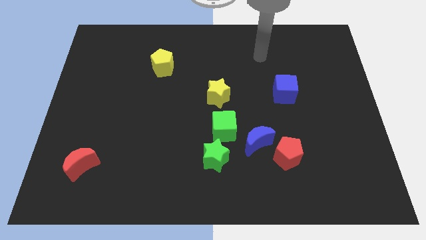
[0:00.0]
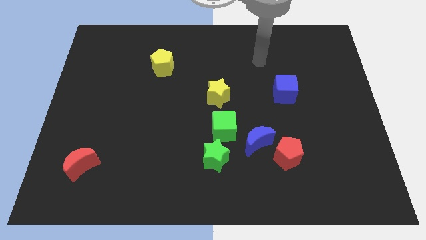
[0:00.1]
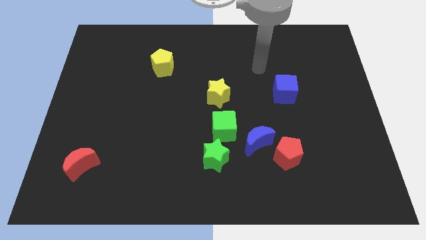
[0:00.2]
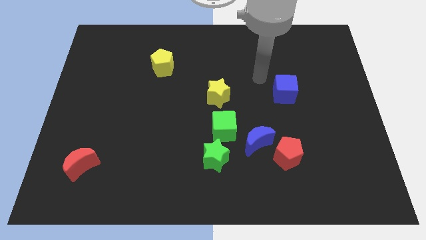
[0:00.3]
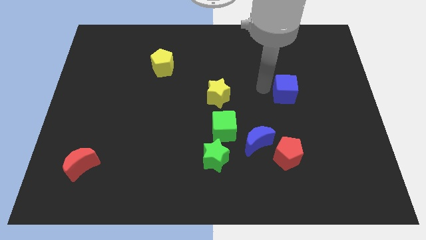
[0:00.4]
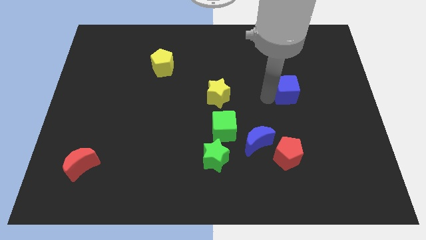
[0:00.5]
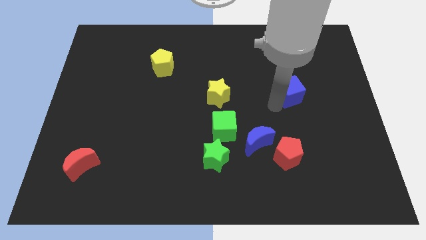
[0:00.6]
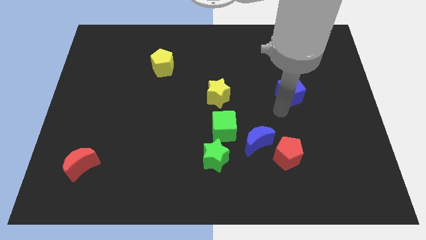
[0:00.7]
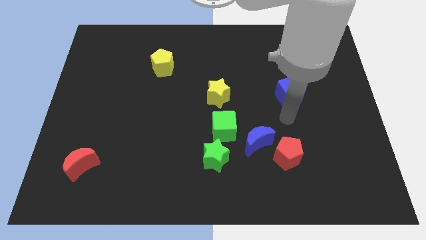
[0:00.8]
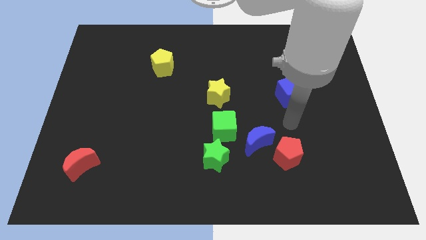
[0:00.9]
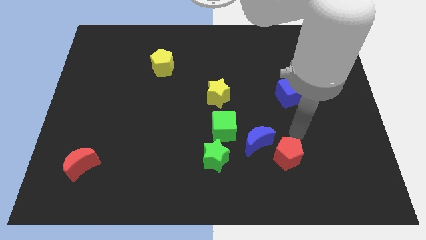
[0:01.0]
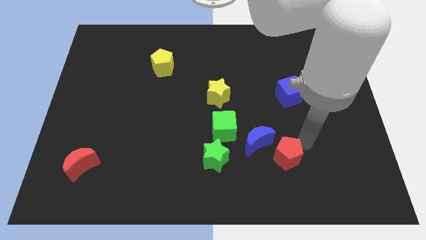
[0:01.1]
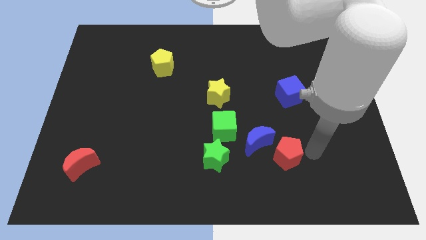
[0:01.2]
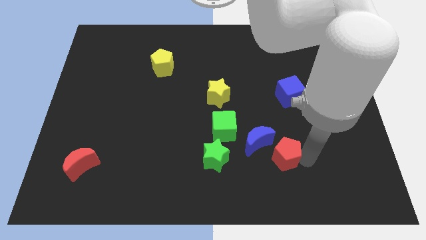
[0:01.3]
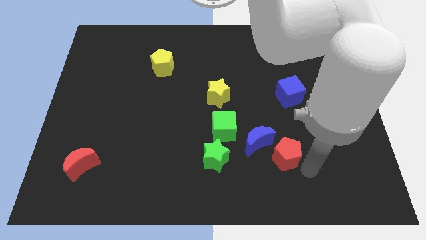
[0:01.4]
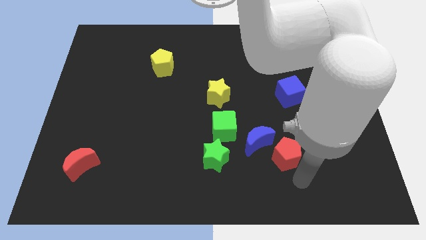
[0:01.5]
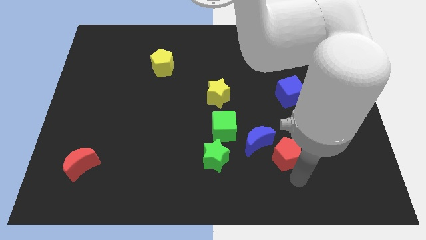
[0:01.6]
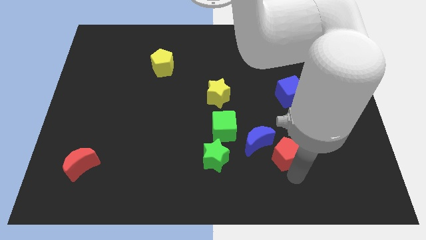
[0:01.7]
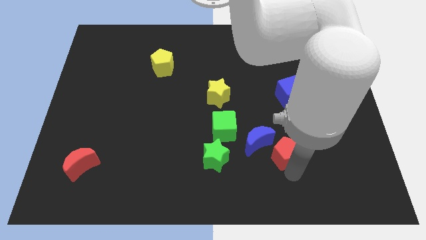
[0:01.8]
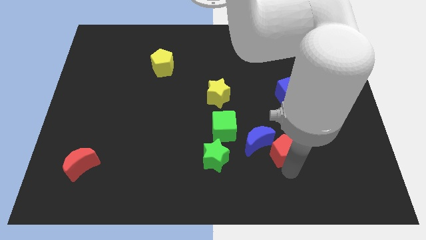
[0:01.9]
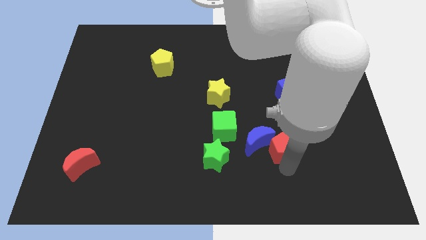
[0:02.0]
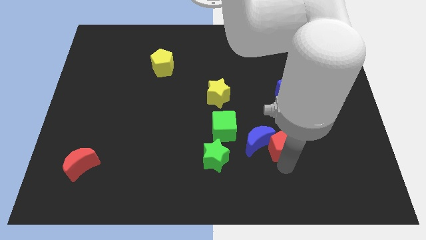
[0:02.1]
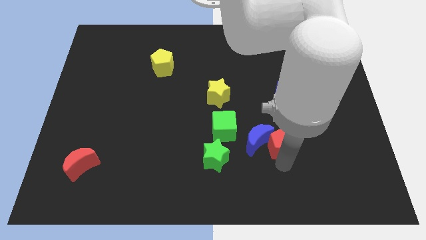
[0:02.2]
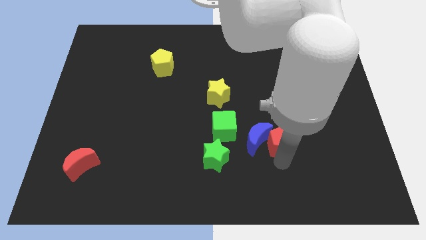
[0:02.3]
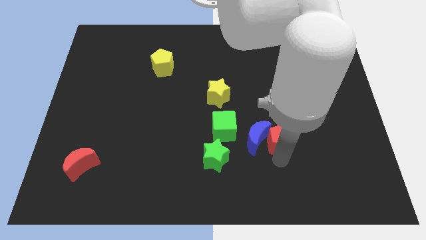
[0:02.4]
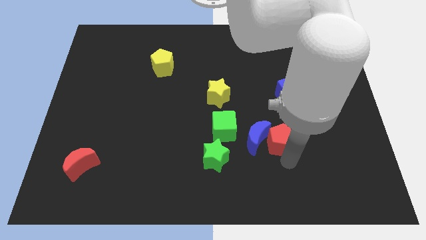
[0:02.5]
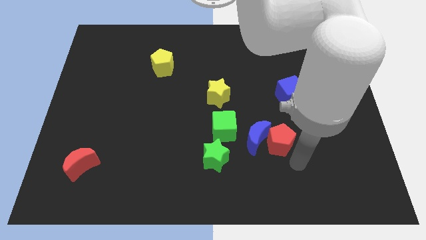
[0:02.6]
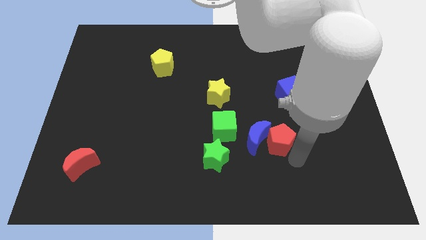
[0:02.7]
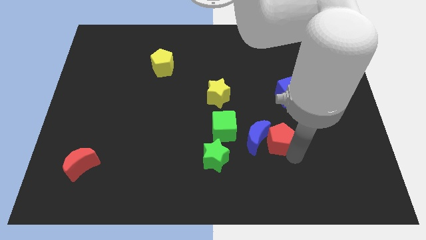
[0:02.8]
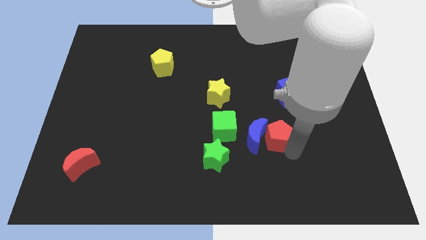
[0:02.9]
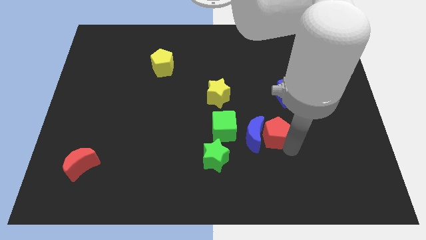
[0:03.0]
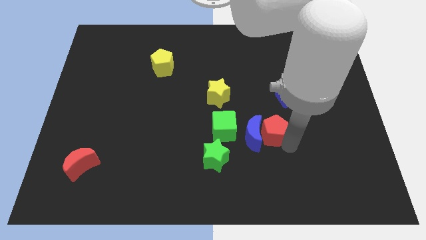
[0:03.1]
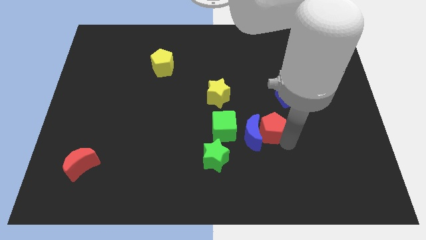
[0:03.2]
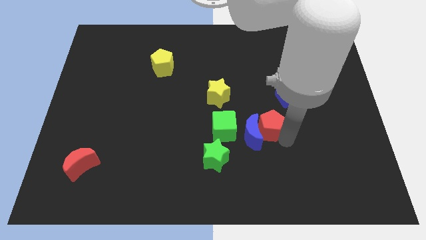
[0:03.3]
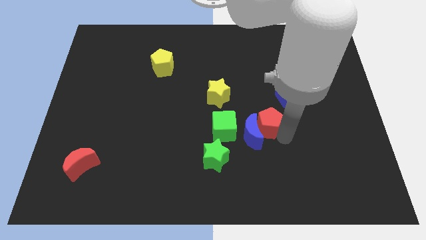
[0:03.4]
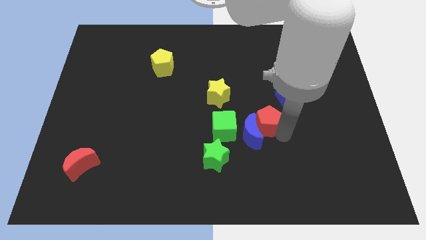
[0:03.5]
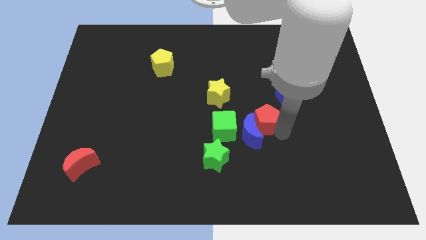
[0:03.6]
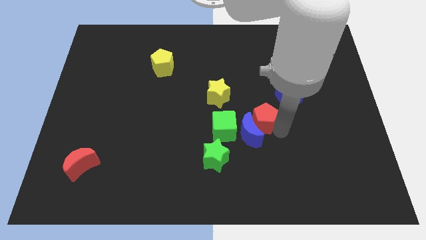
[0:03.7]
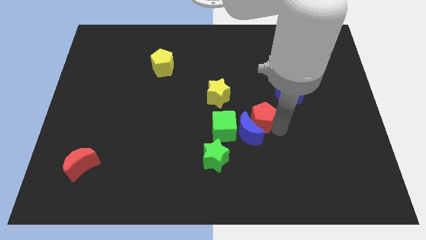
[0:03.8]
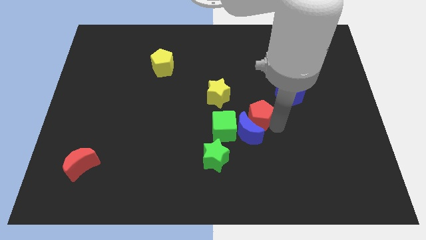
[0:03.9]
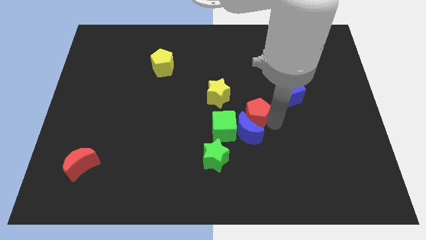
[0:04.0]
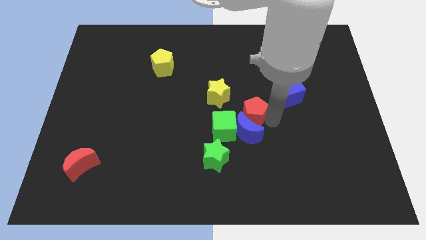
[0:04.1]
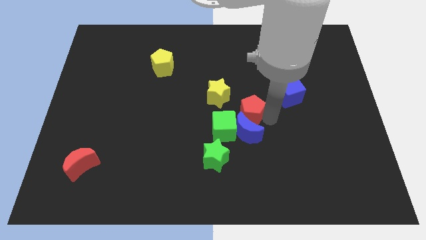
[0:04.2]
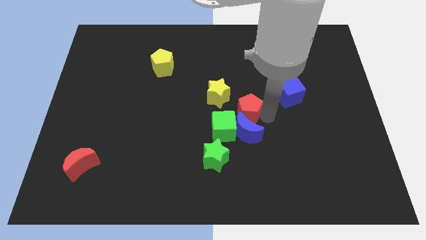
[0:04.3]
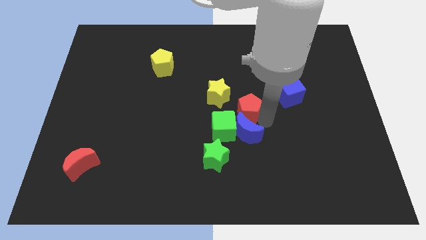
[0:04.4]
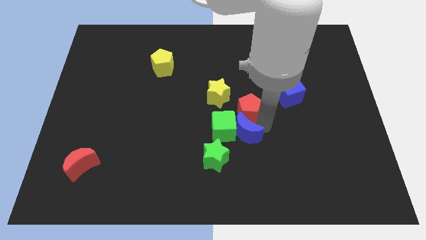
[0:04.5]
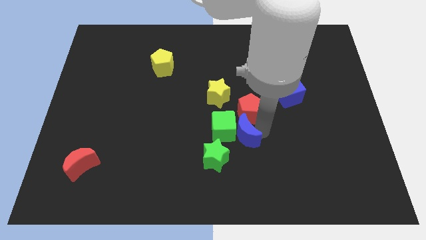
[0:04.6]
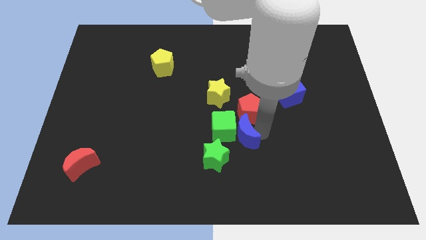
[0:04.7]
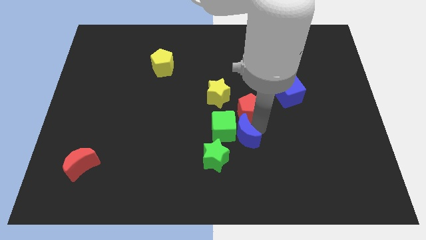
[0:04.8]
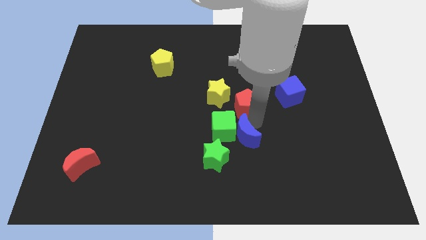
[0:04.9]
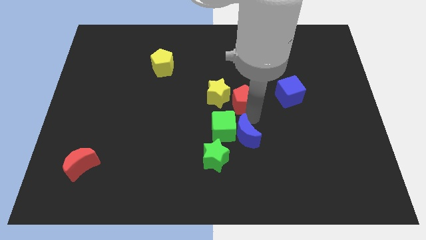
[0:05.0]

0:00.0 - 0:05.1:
put the red pentagon to the top side of the green cube

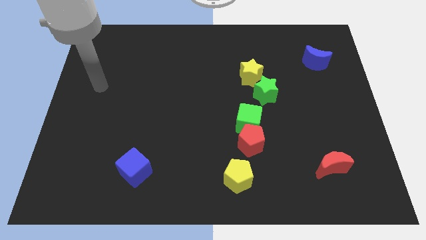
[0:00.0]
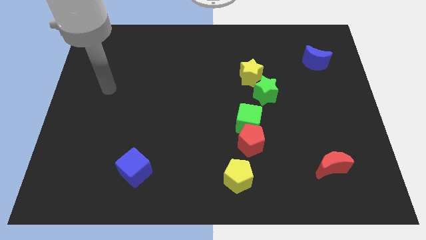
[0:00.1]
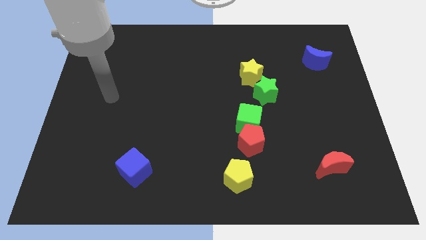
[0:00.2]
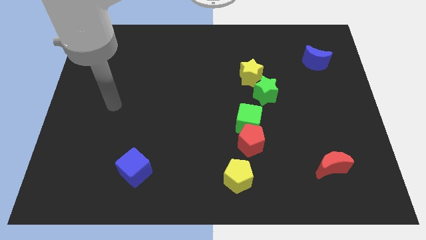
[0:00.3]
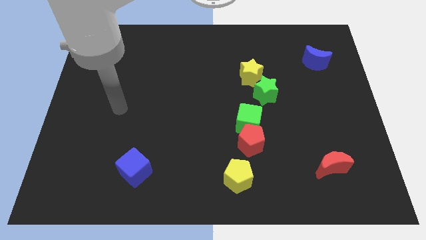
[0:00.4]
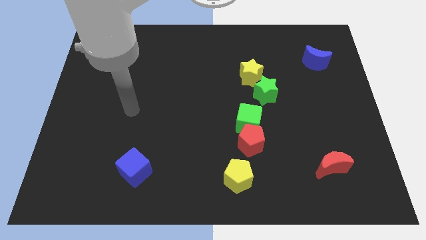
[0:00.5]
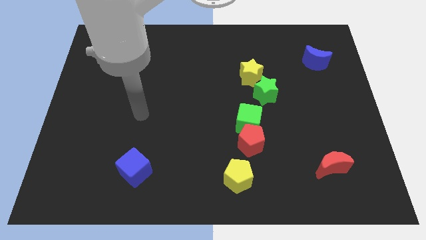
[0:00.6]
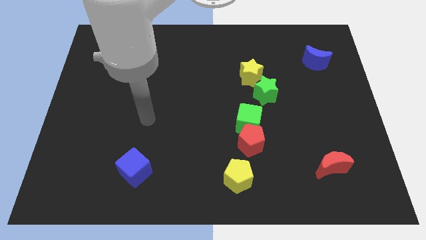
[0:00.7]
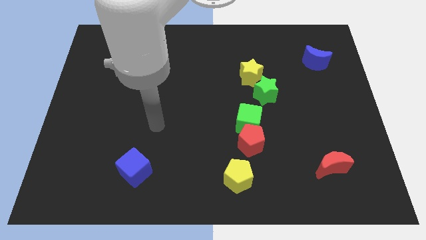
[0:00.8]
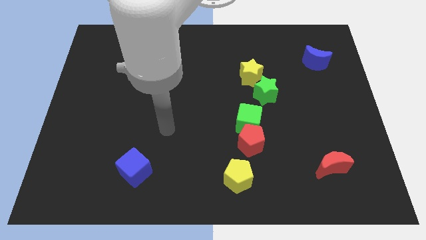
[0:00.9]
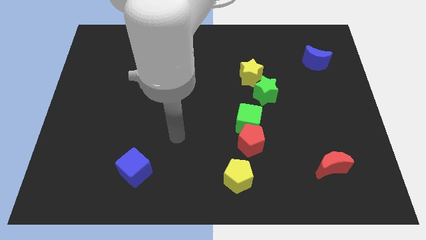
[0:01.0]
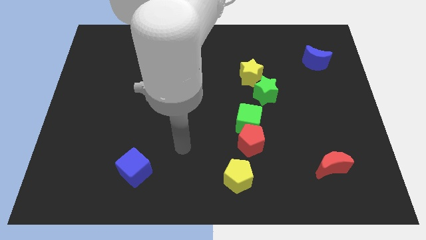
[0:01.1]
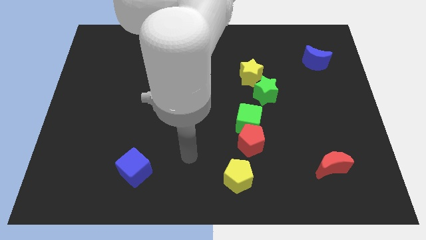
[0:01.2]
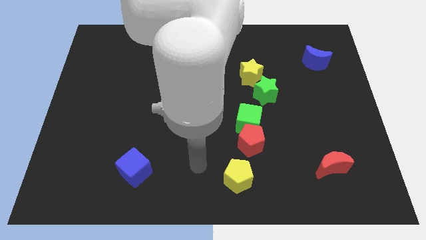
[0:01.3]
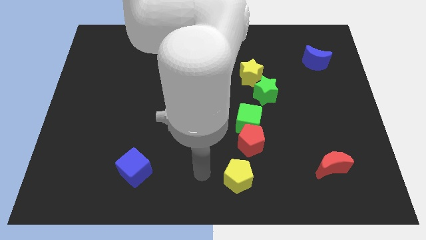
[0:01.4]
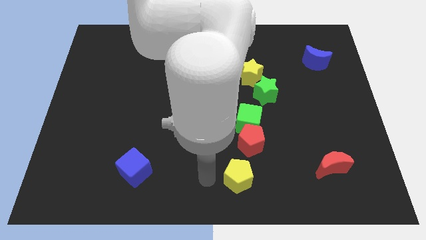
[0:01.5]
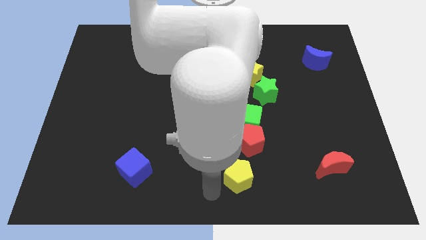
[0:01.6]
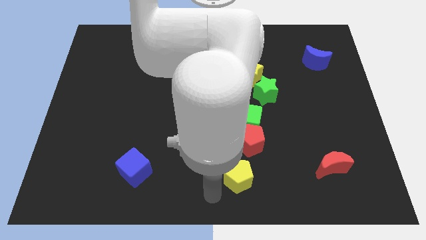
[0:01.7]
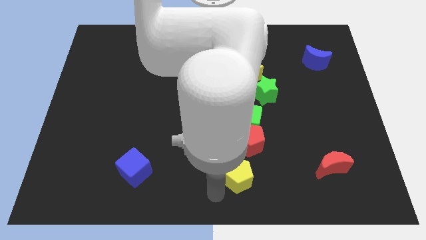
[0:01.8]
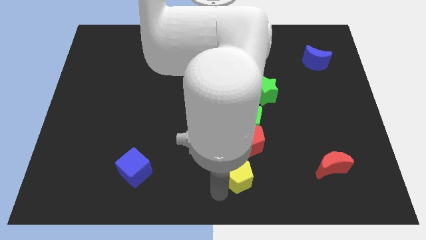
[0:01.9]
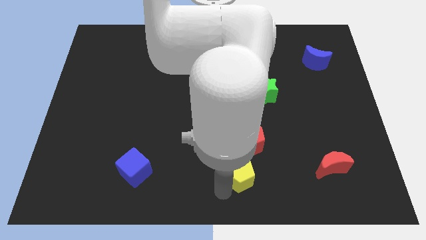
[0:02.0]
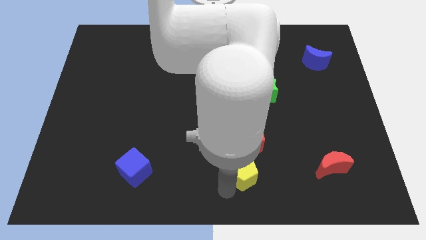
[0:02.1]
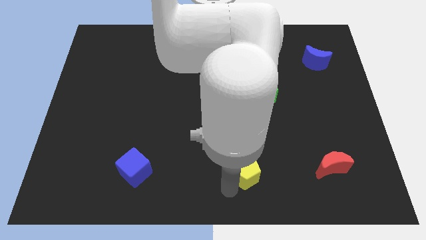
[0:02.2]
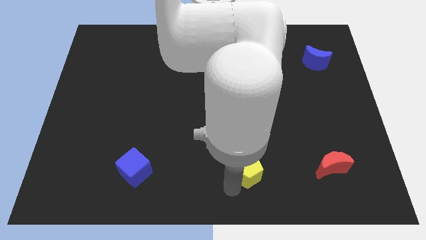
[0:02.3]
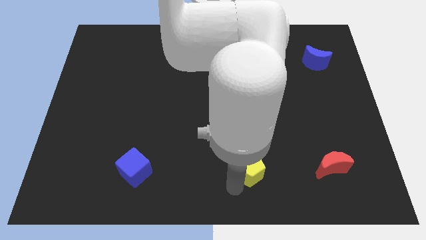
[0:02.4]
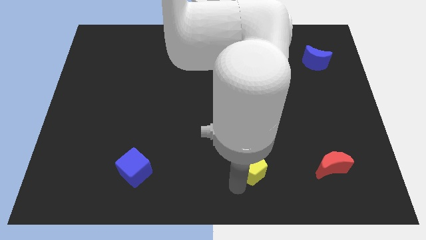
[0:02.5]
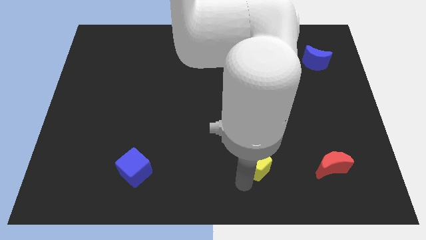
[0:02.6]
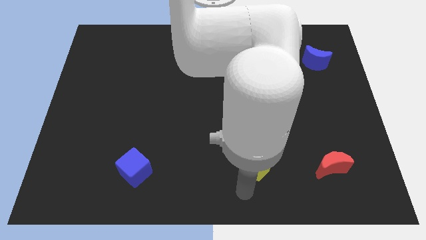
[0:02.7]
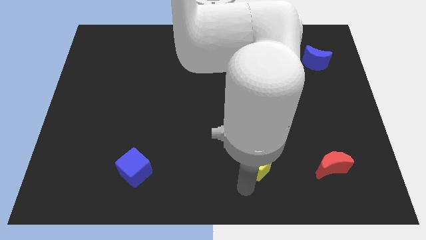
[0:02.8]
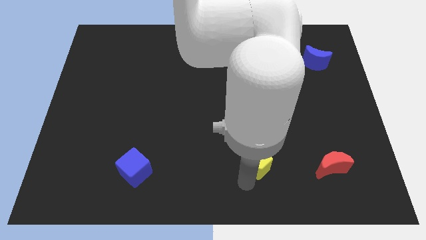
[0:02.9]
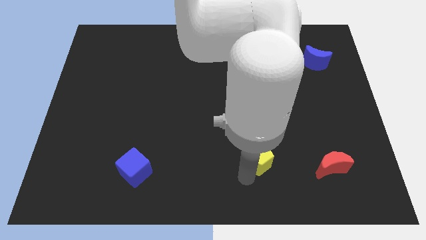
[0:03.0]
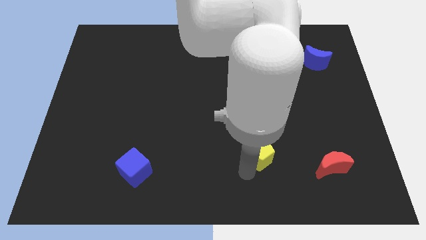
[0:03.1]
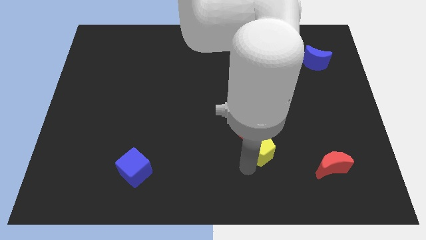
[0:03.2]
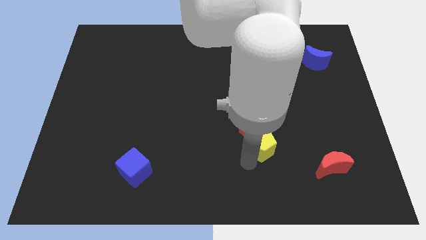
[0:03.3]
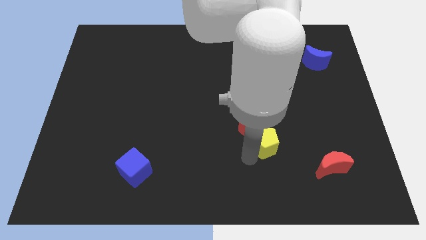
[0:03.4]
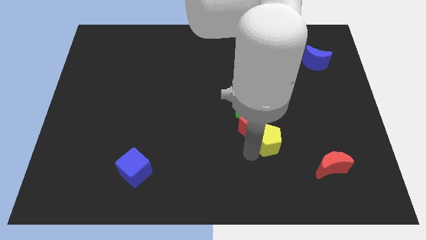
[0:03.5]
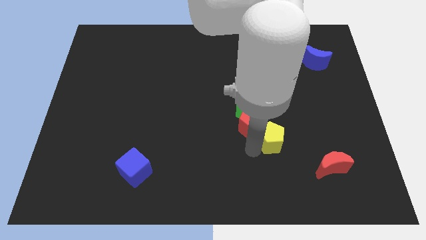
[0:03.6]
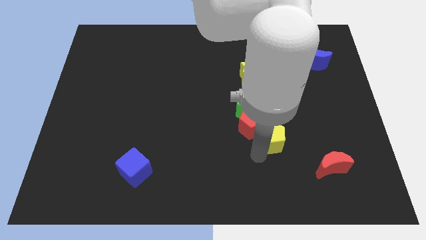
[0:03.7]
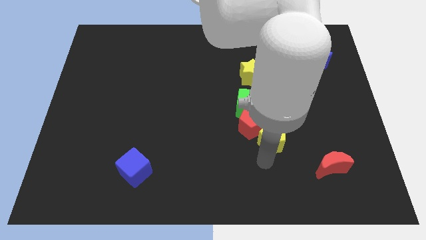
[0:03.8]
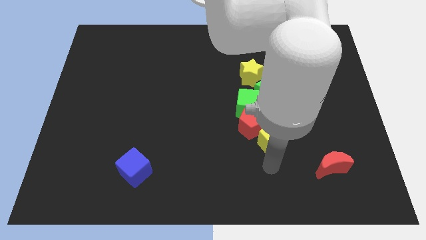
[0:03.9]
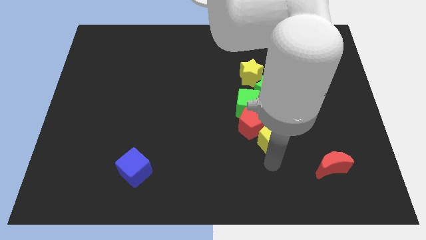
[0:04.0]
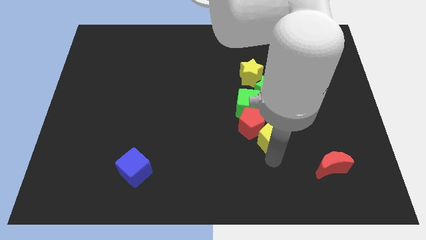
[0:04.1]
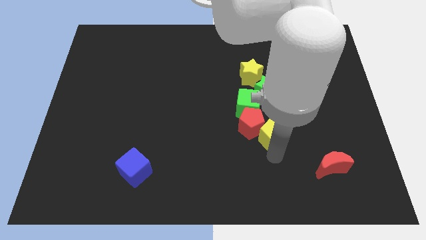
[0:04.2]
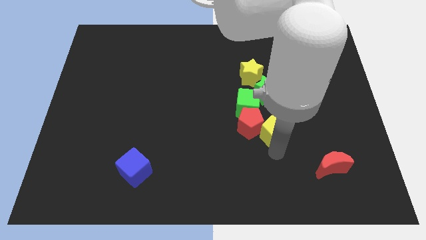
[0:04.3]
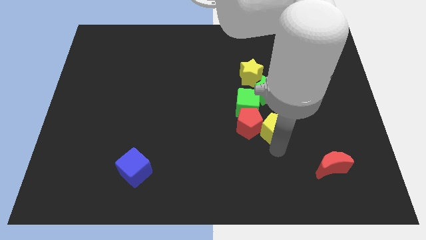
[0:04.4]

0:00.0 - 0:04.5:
slide the yellow pentagon to the top right of the red pentagon
